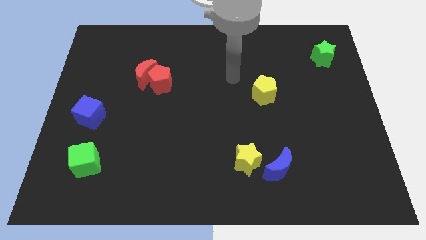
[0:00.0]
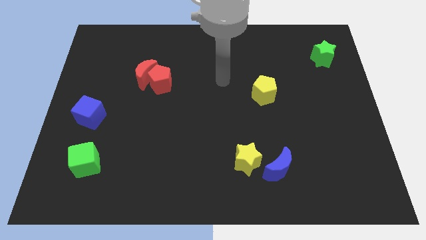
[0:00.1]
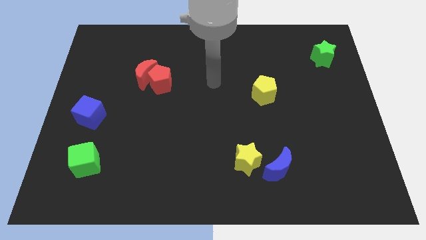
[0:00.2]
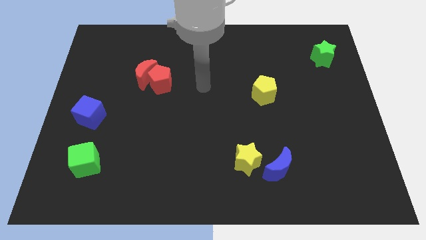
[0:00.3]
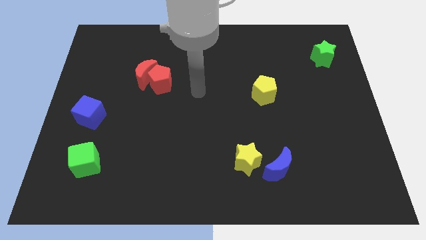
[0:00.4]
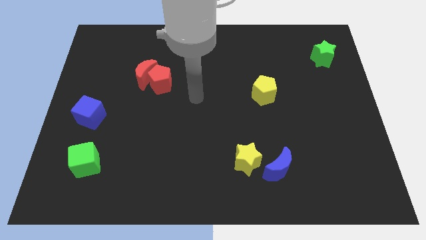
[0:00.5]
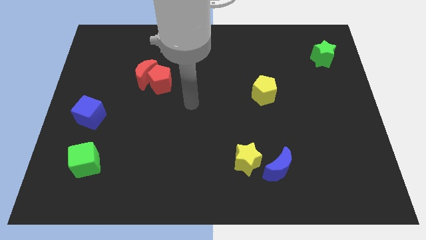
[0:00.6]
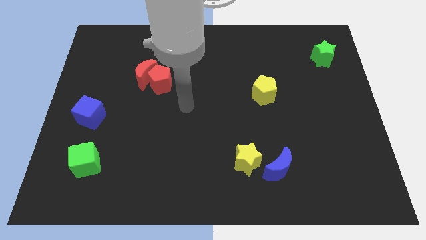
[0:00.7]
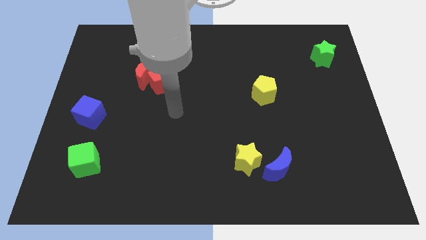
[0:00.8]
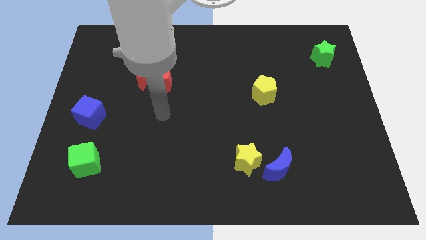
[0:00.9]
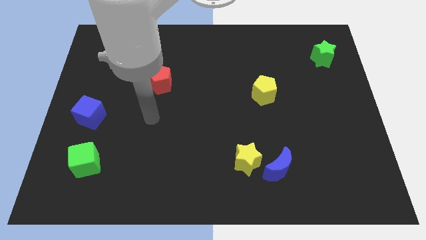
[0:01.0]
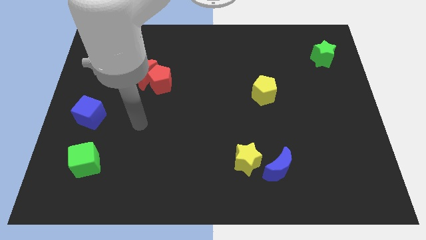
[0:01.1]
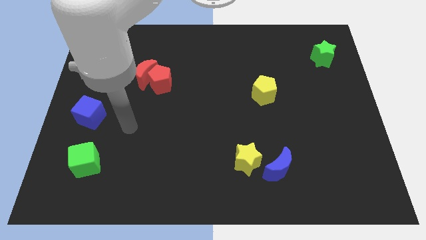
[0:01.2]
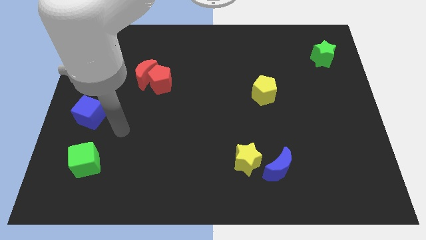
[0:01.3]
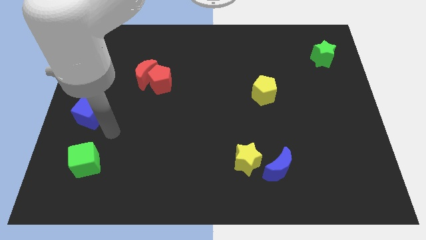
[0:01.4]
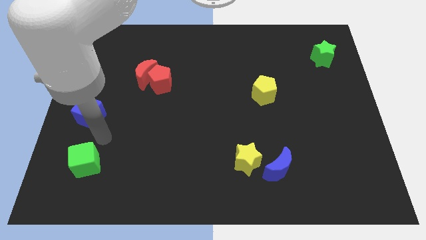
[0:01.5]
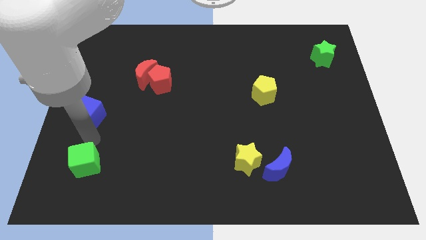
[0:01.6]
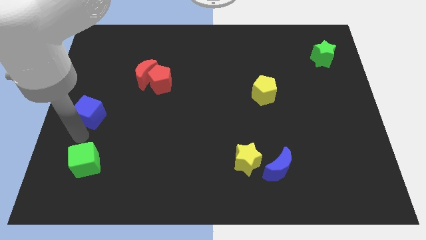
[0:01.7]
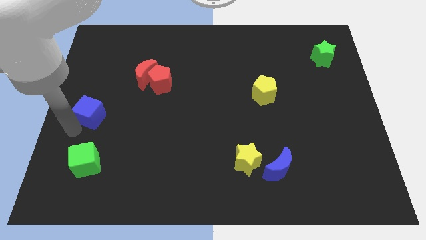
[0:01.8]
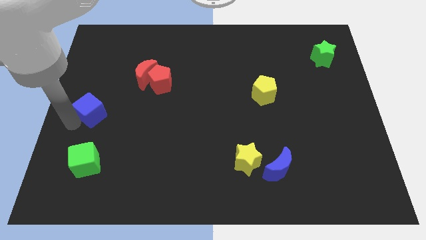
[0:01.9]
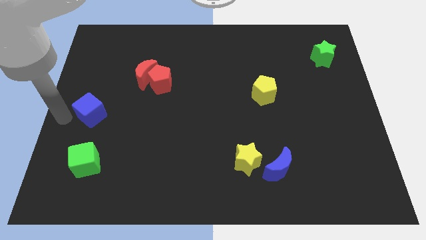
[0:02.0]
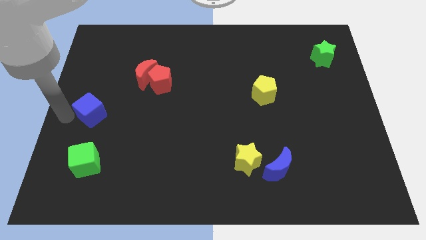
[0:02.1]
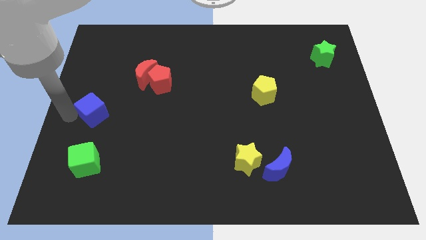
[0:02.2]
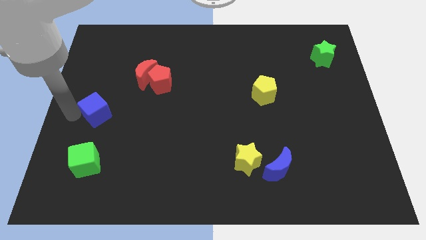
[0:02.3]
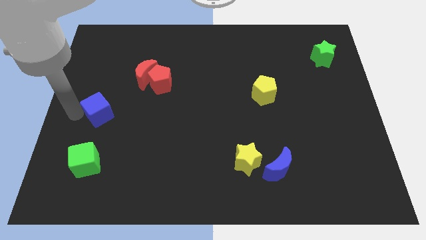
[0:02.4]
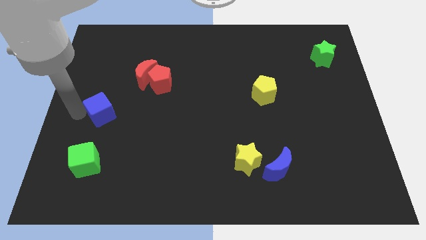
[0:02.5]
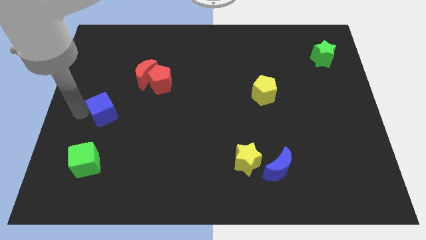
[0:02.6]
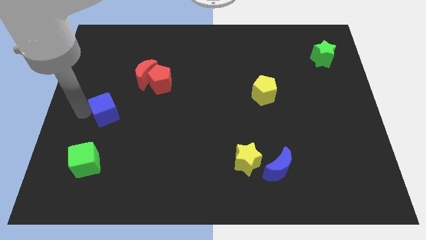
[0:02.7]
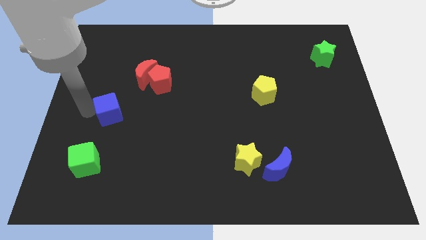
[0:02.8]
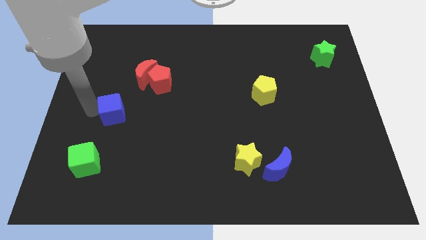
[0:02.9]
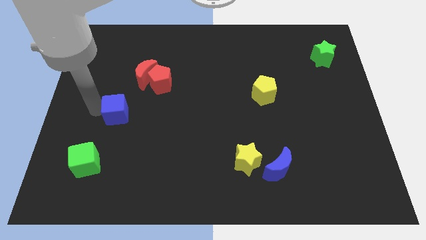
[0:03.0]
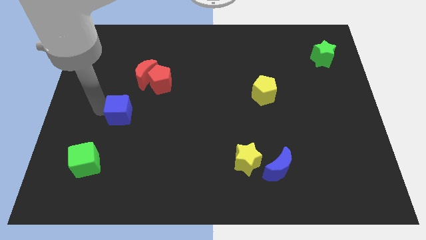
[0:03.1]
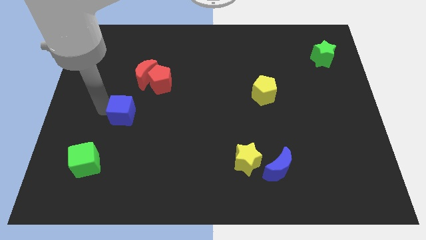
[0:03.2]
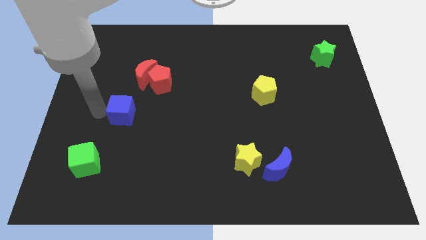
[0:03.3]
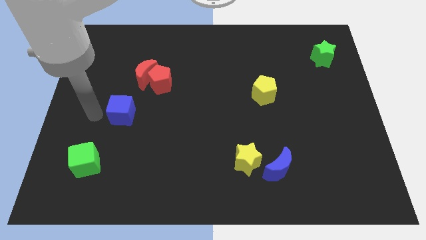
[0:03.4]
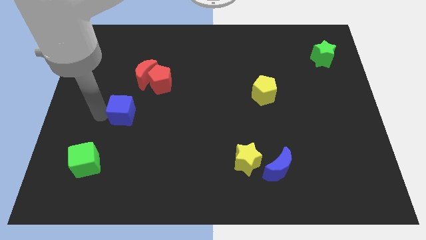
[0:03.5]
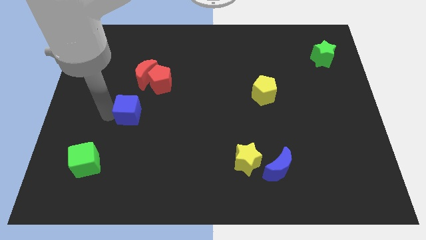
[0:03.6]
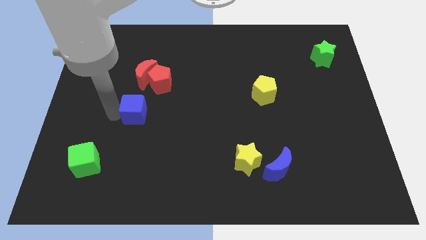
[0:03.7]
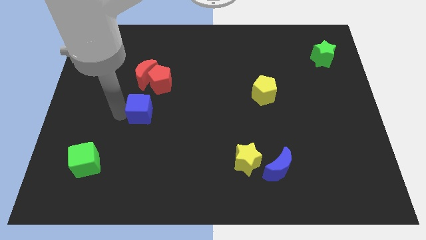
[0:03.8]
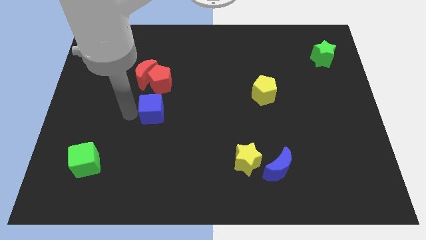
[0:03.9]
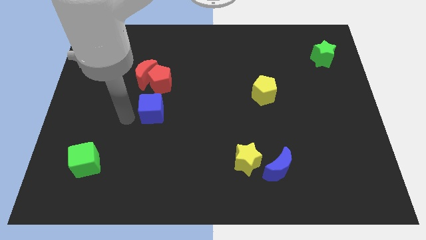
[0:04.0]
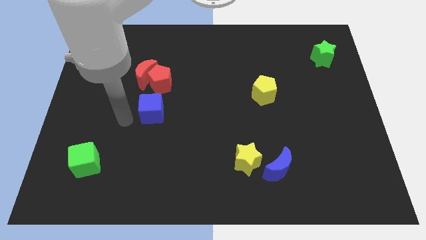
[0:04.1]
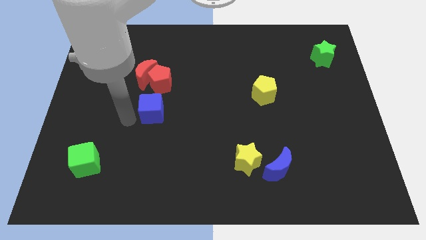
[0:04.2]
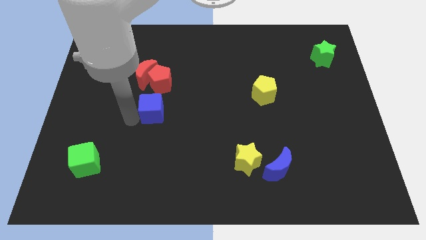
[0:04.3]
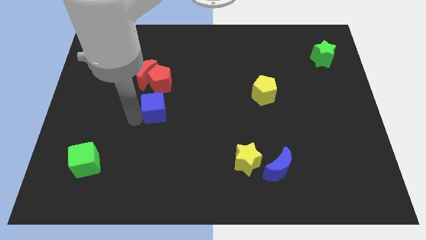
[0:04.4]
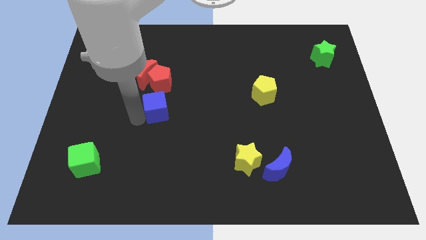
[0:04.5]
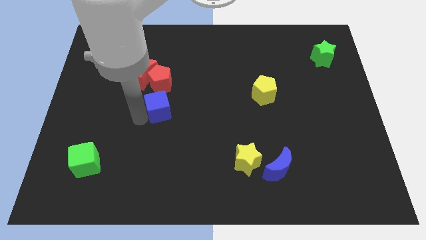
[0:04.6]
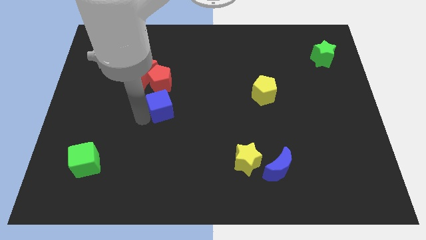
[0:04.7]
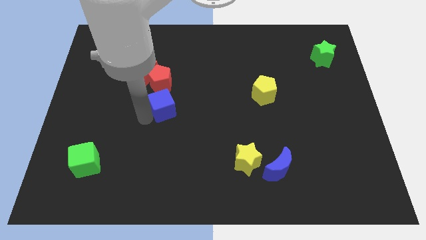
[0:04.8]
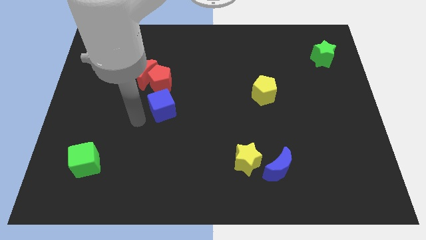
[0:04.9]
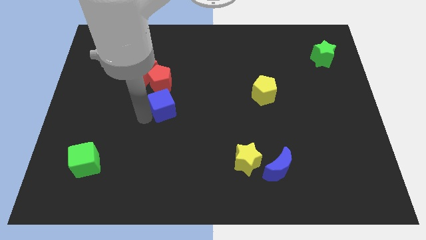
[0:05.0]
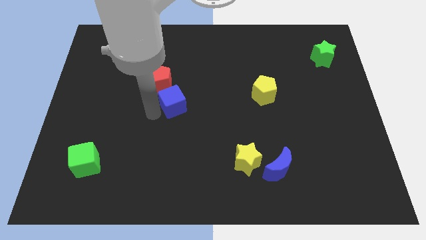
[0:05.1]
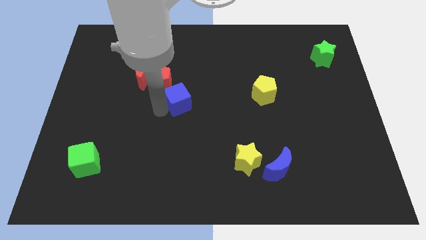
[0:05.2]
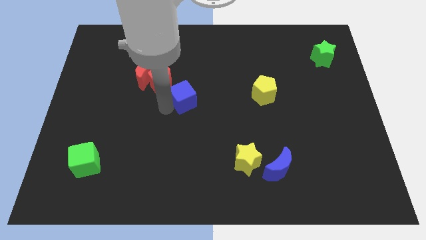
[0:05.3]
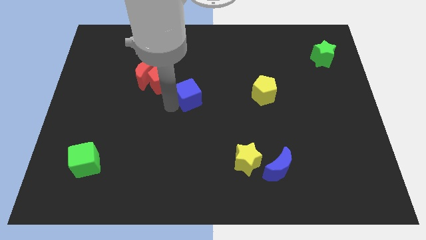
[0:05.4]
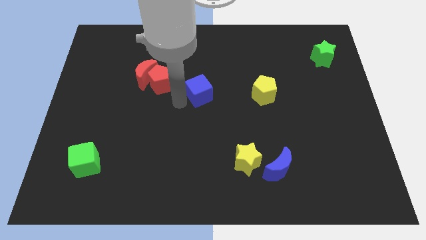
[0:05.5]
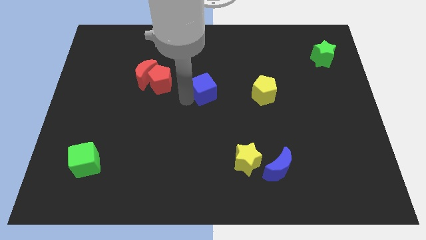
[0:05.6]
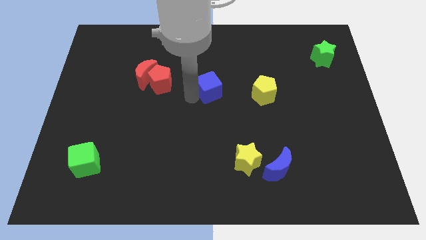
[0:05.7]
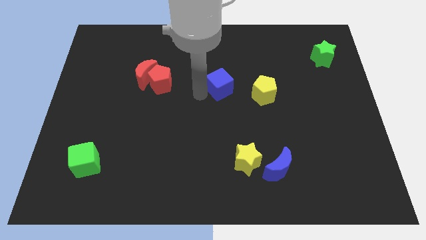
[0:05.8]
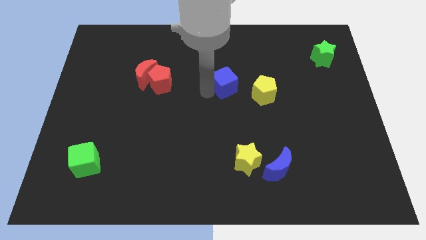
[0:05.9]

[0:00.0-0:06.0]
move the blue cube diagonally up and to the left of the yellow pentagon

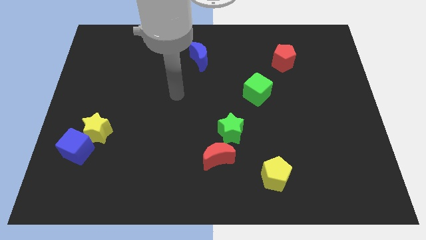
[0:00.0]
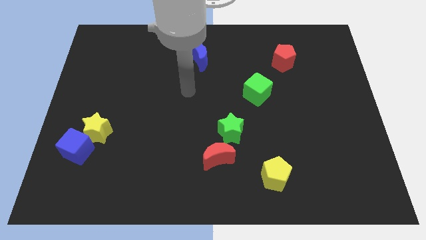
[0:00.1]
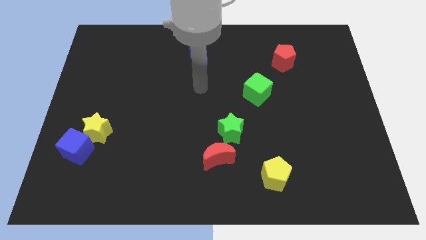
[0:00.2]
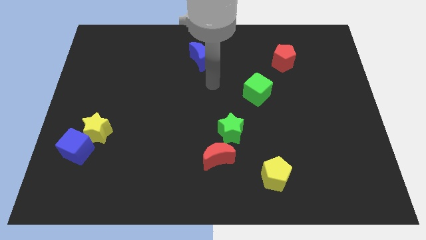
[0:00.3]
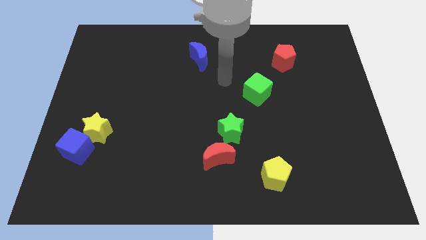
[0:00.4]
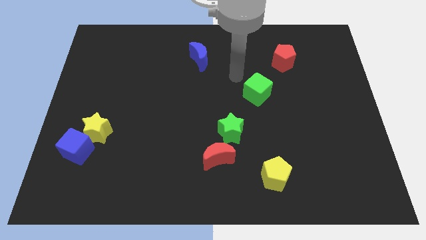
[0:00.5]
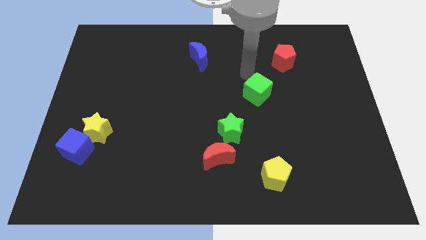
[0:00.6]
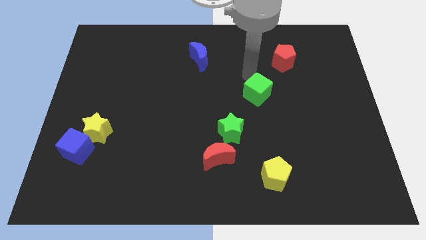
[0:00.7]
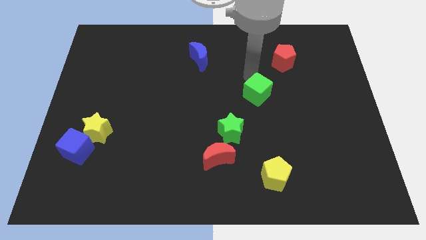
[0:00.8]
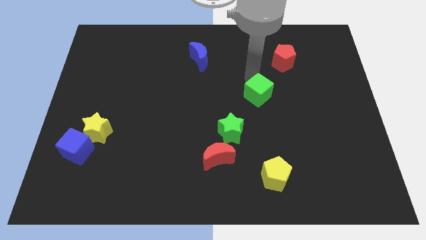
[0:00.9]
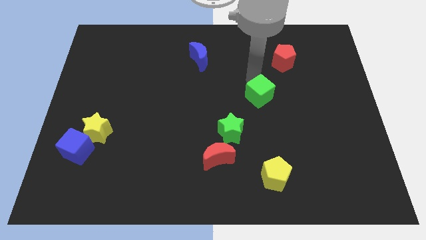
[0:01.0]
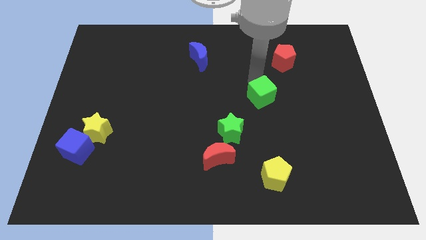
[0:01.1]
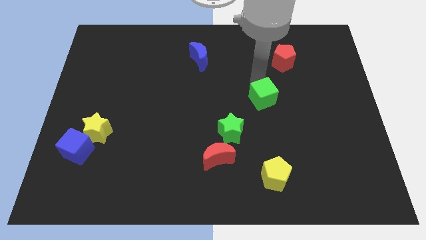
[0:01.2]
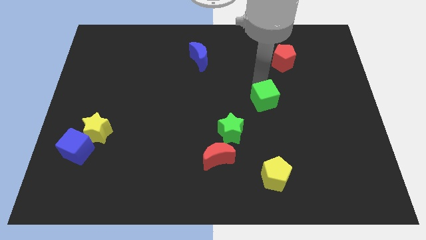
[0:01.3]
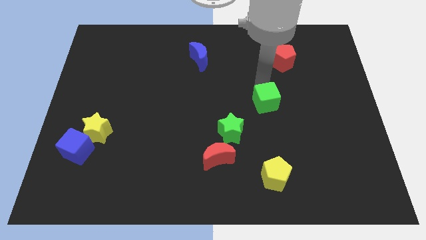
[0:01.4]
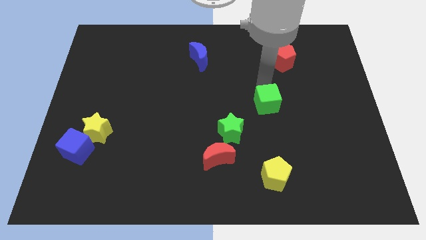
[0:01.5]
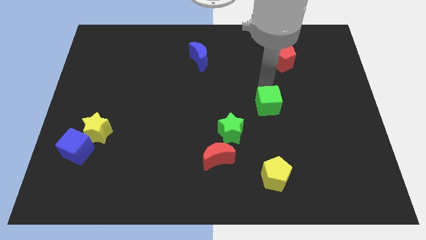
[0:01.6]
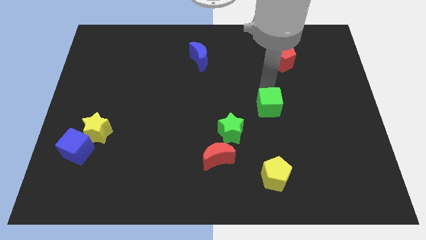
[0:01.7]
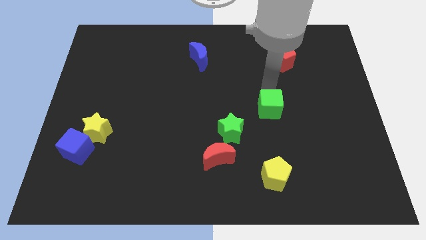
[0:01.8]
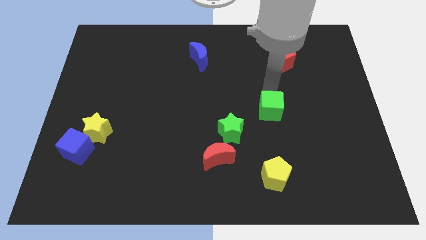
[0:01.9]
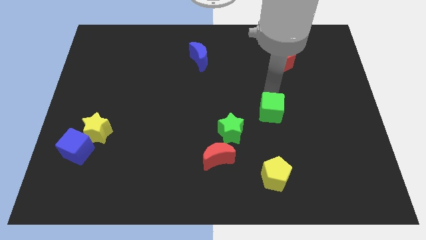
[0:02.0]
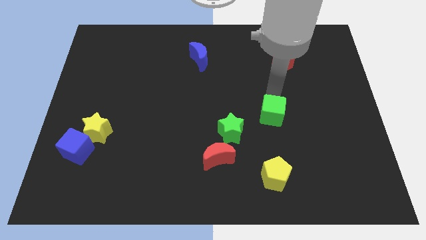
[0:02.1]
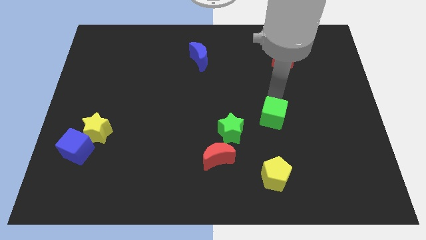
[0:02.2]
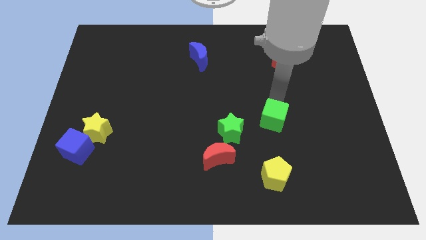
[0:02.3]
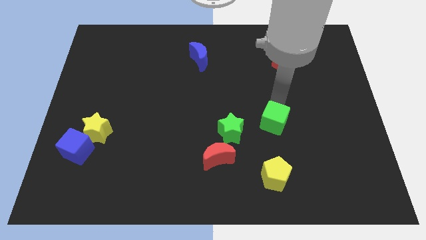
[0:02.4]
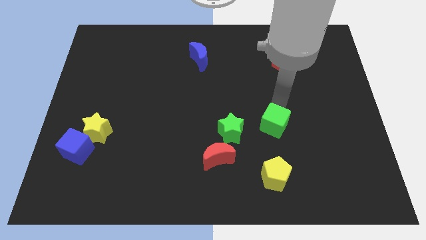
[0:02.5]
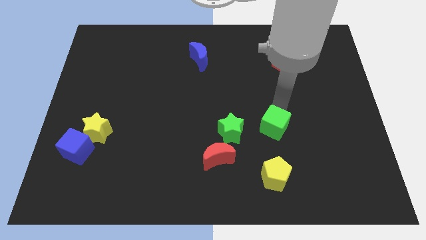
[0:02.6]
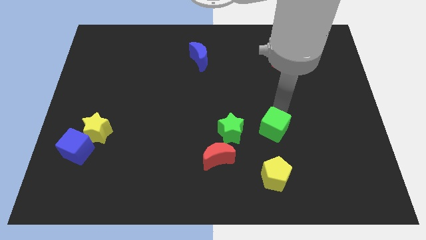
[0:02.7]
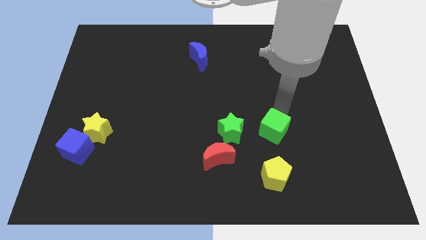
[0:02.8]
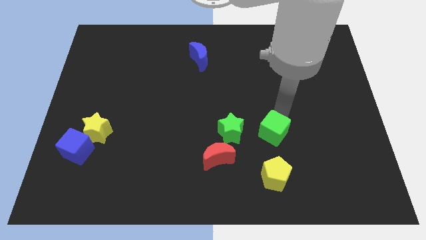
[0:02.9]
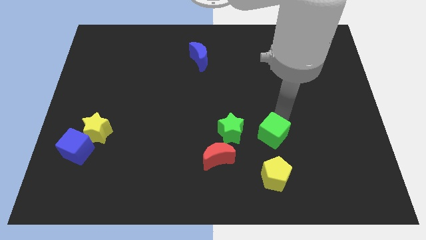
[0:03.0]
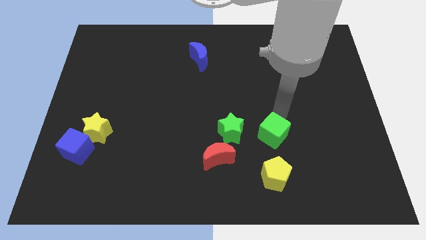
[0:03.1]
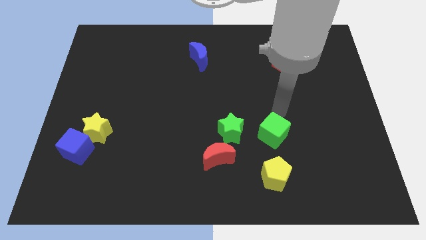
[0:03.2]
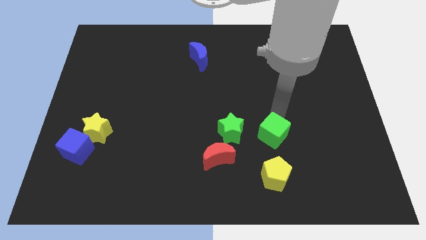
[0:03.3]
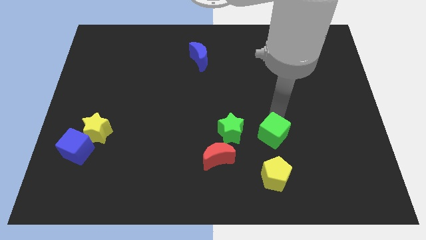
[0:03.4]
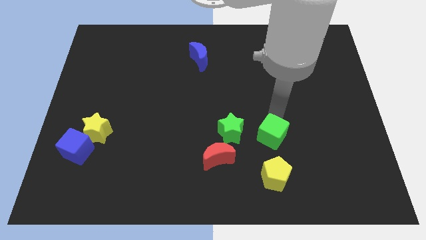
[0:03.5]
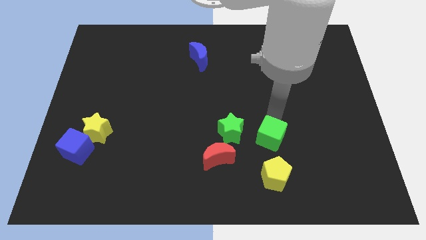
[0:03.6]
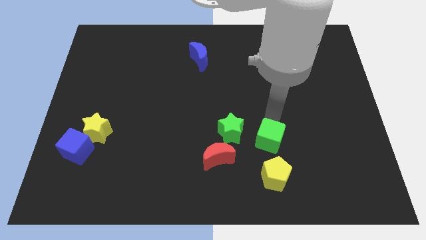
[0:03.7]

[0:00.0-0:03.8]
put the green cube just right of the red moon
